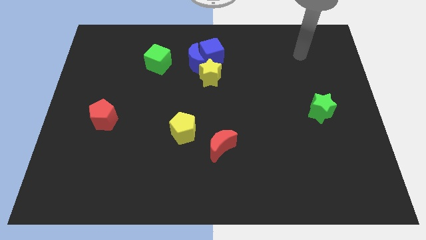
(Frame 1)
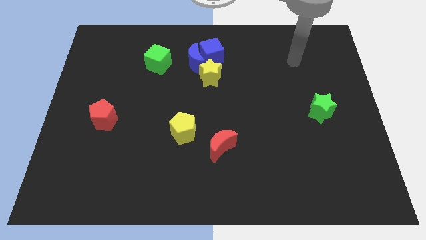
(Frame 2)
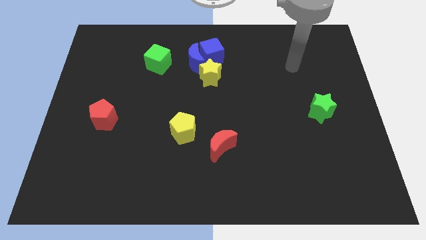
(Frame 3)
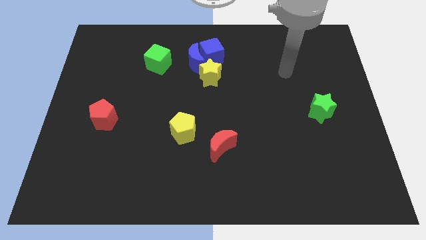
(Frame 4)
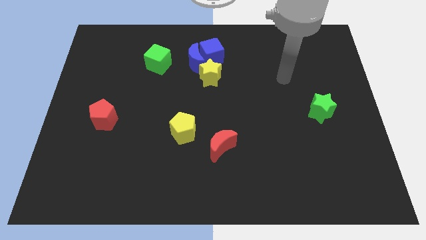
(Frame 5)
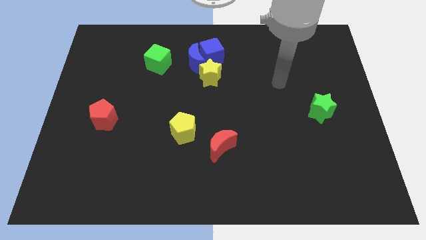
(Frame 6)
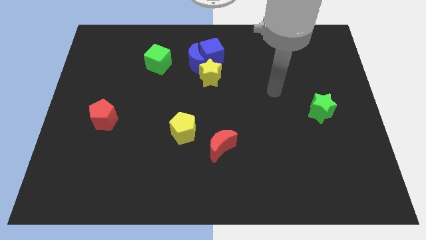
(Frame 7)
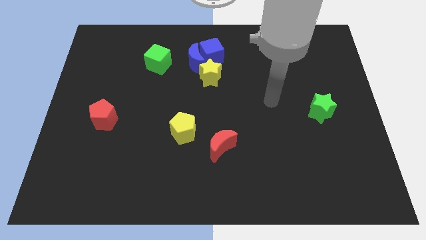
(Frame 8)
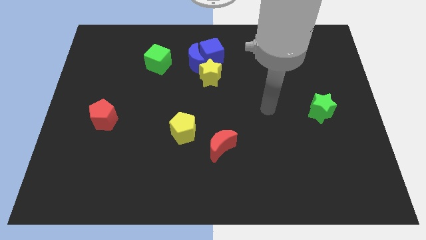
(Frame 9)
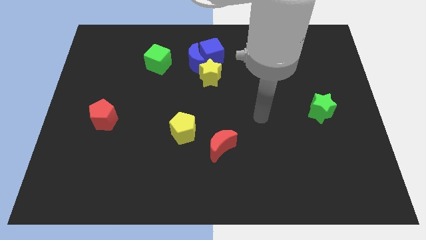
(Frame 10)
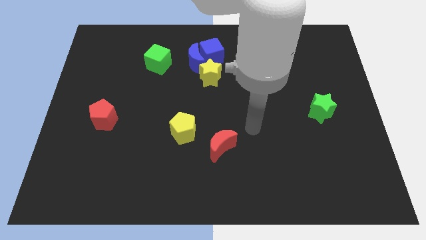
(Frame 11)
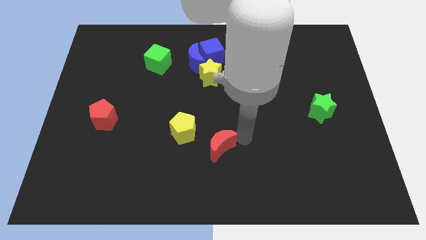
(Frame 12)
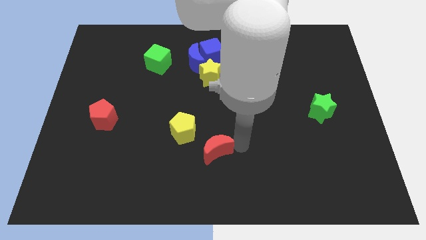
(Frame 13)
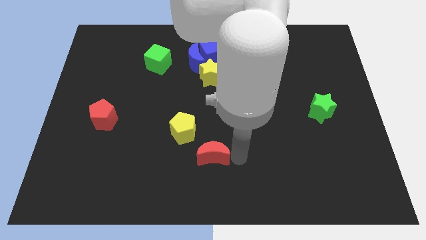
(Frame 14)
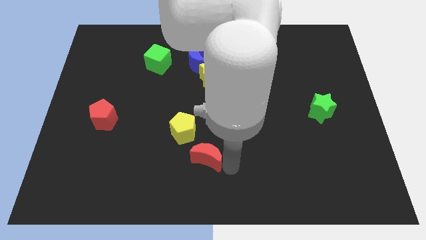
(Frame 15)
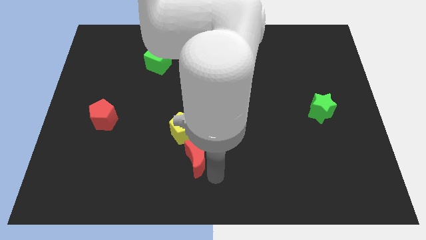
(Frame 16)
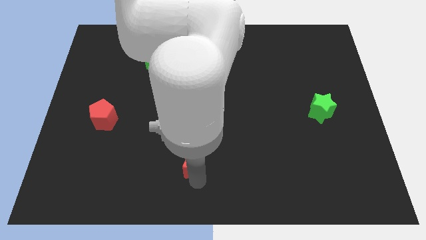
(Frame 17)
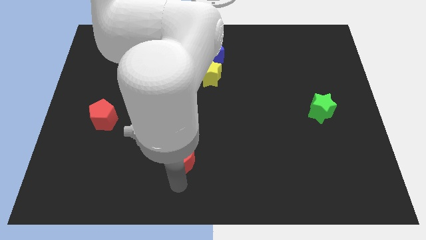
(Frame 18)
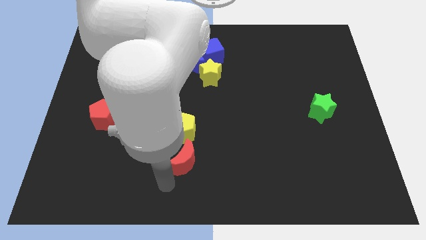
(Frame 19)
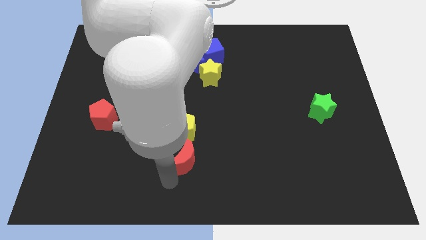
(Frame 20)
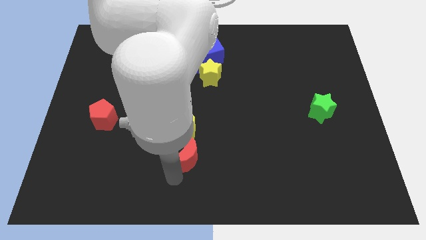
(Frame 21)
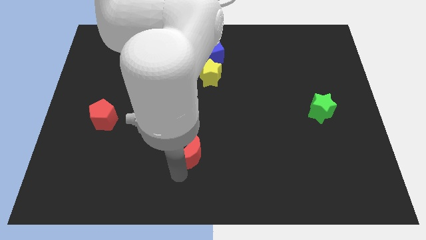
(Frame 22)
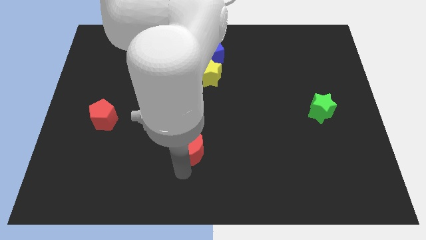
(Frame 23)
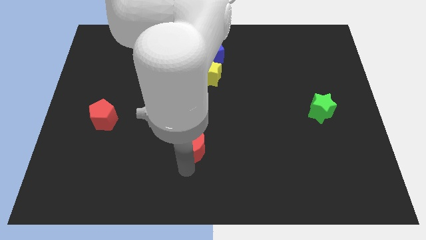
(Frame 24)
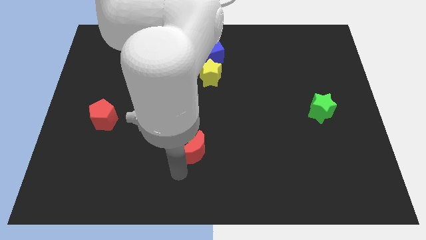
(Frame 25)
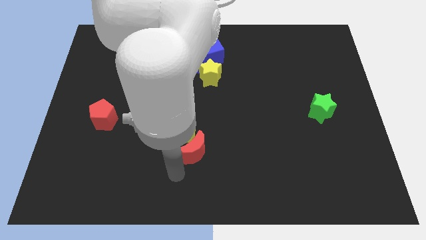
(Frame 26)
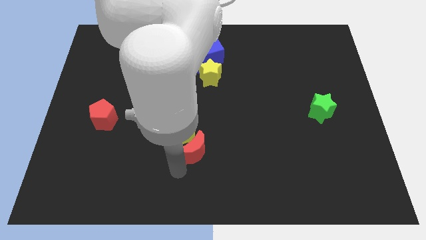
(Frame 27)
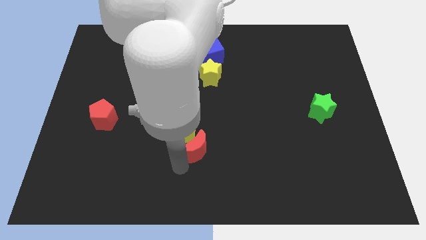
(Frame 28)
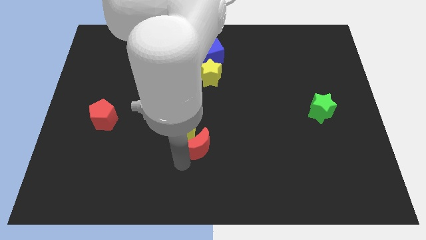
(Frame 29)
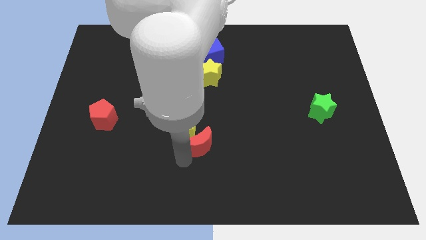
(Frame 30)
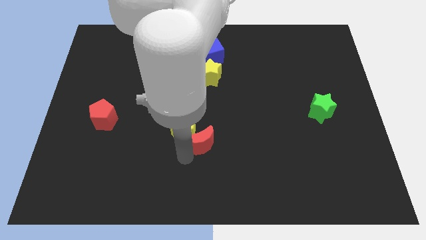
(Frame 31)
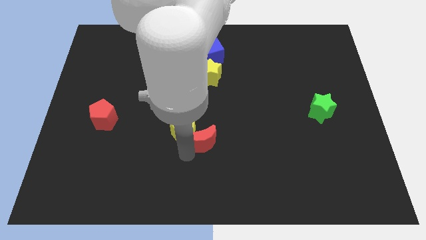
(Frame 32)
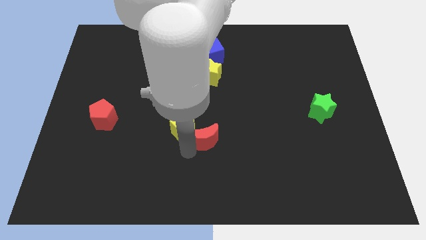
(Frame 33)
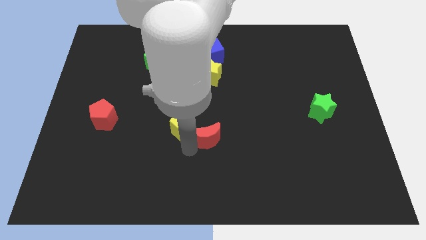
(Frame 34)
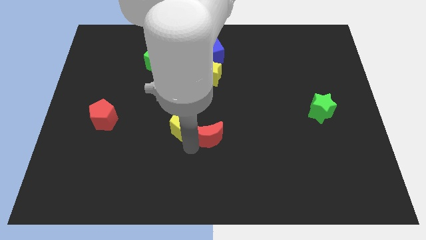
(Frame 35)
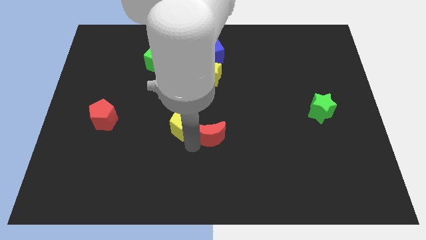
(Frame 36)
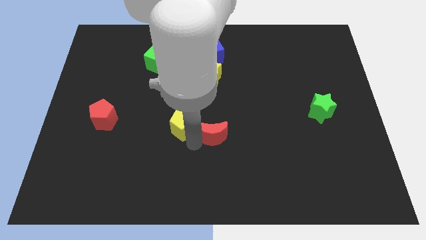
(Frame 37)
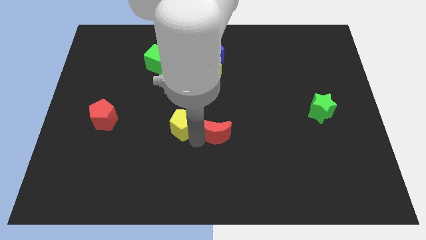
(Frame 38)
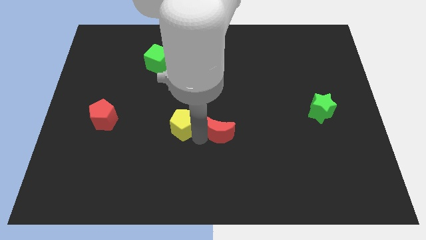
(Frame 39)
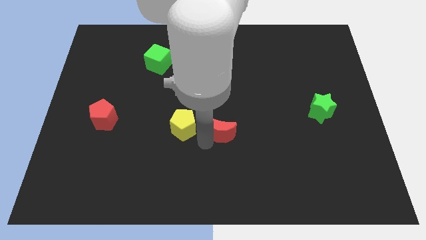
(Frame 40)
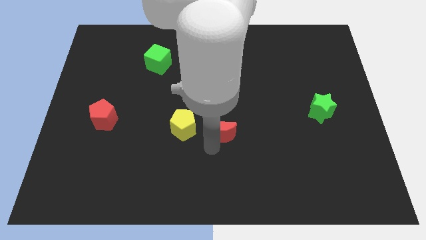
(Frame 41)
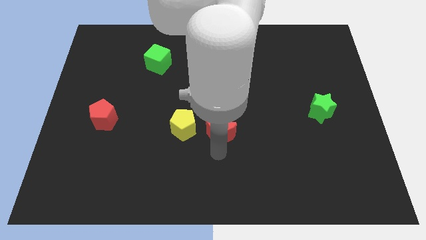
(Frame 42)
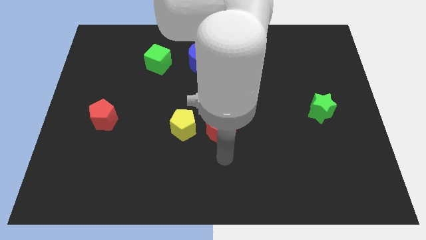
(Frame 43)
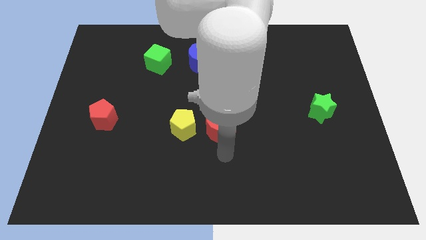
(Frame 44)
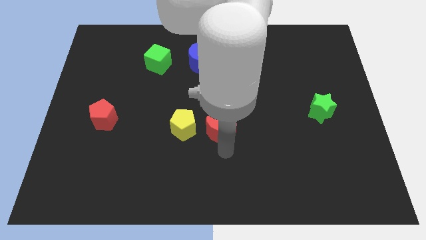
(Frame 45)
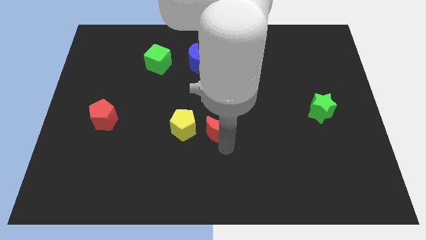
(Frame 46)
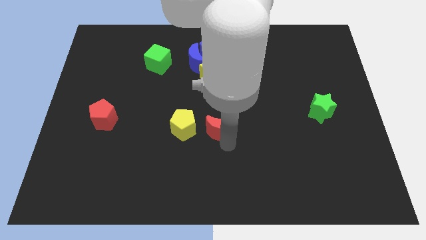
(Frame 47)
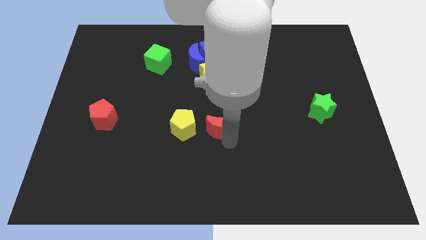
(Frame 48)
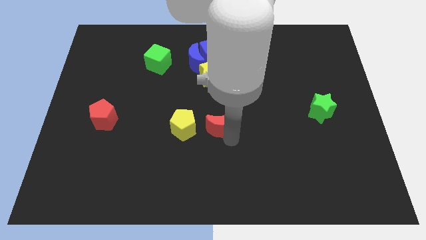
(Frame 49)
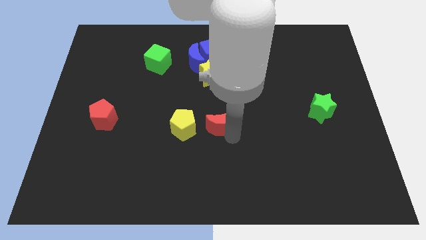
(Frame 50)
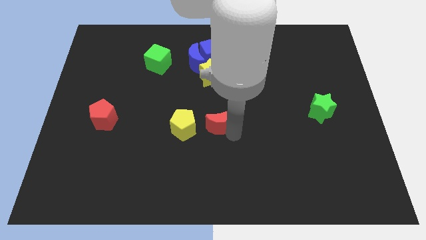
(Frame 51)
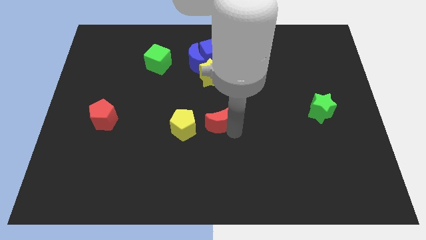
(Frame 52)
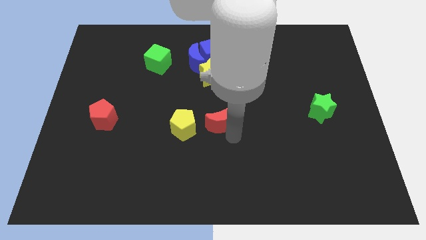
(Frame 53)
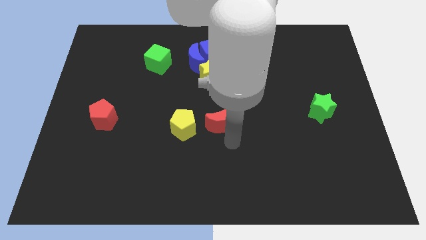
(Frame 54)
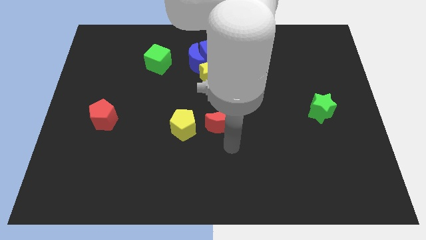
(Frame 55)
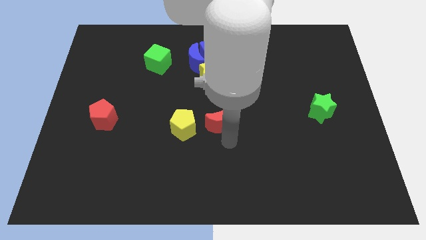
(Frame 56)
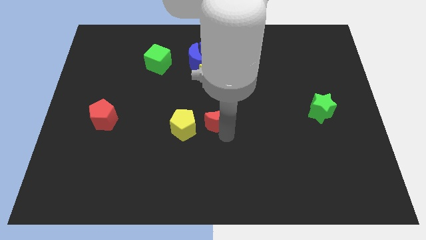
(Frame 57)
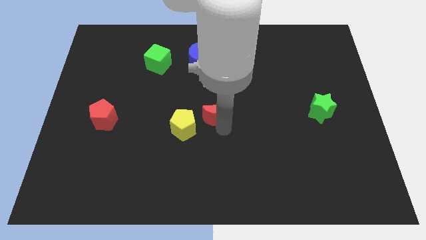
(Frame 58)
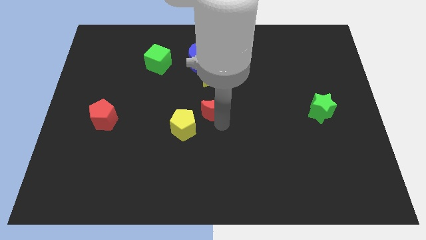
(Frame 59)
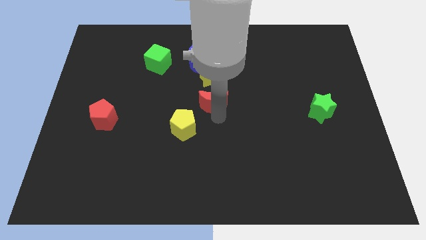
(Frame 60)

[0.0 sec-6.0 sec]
put the red moon below the blue cube

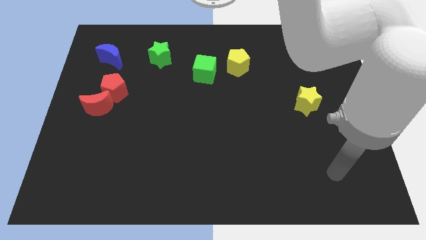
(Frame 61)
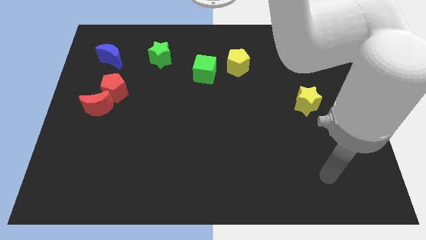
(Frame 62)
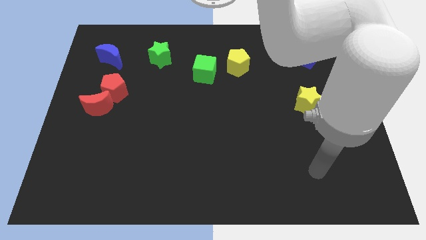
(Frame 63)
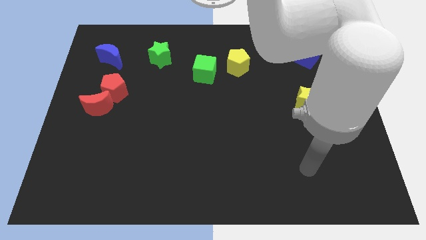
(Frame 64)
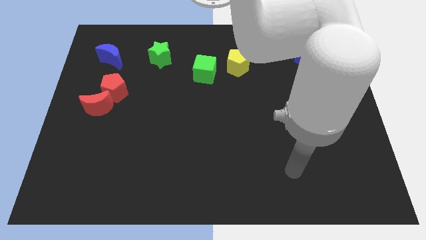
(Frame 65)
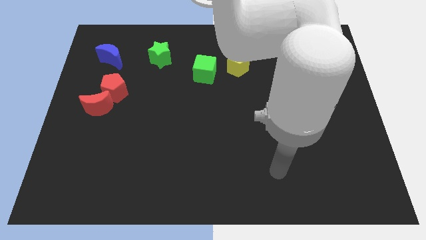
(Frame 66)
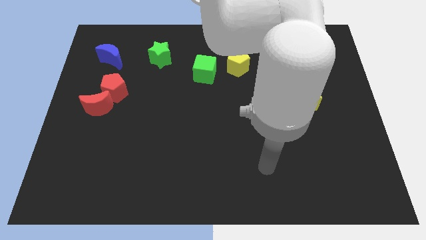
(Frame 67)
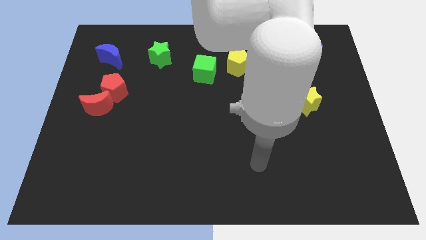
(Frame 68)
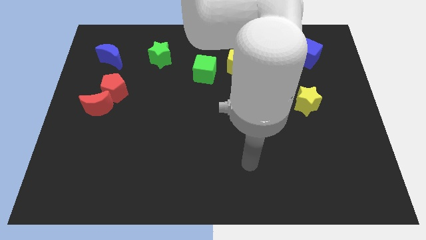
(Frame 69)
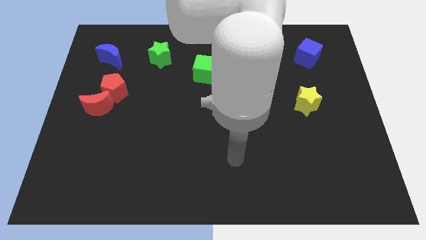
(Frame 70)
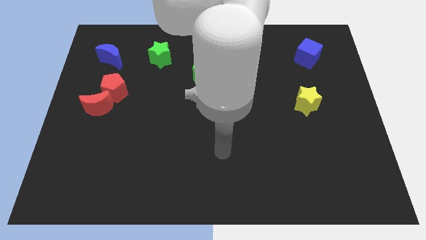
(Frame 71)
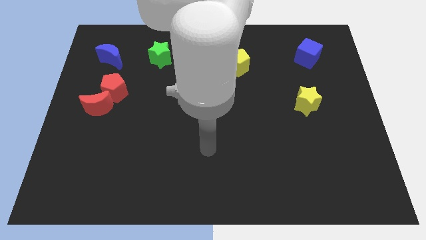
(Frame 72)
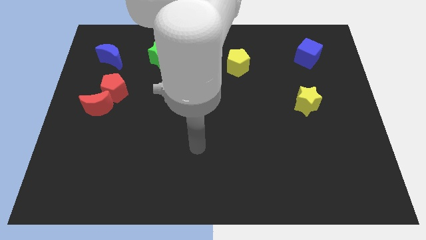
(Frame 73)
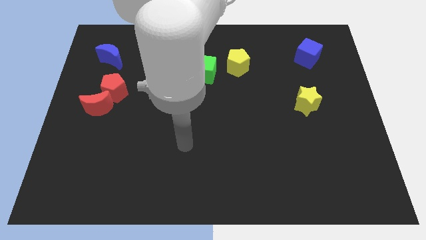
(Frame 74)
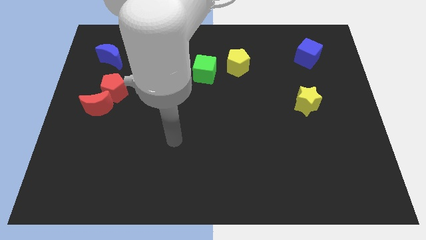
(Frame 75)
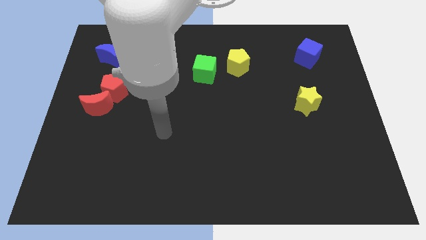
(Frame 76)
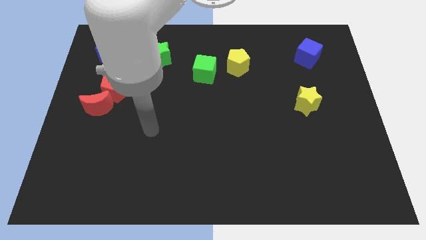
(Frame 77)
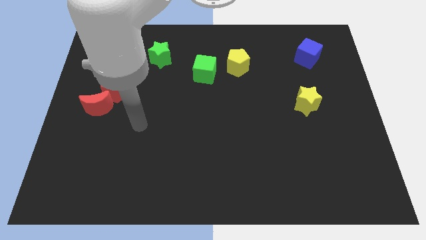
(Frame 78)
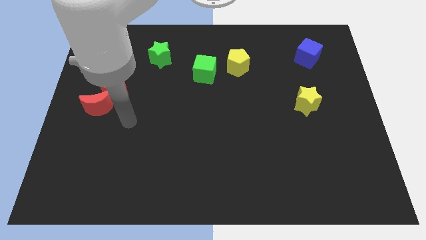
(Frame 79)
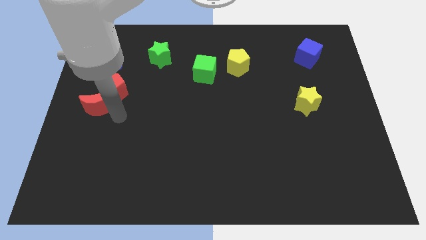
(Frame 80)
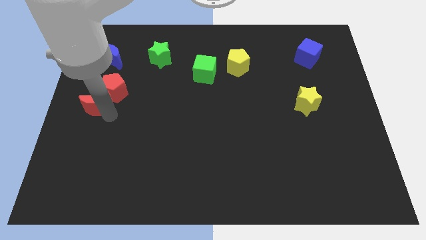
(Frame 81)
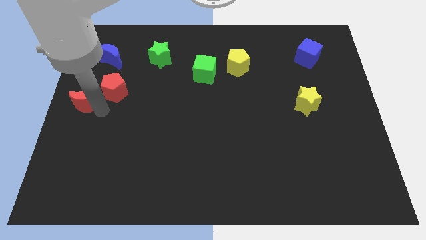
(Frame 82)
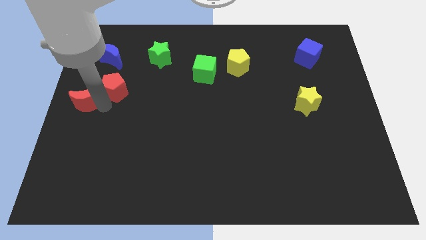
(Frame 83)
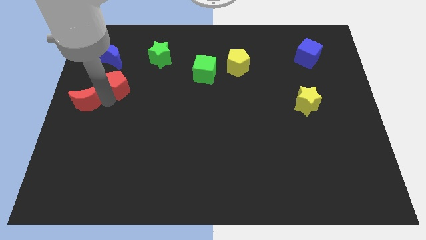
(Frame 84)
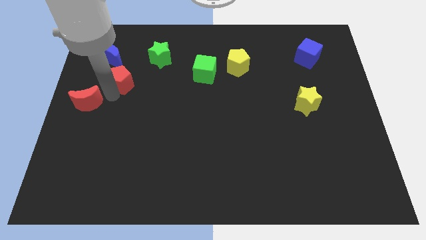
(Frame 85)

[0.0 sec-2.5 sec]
slide the red pentagon to the bottom right of the blue moon

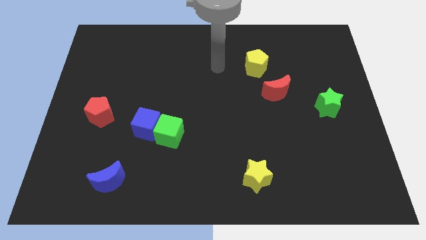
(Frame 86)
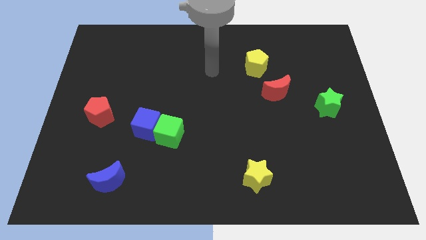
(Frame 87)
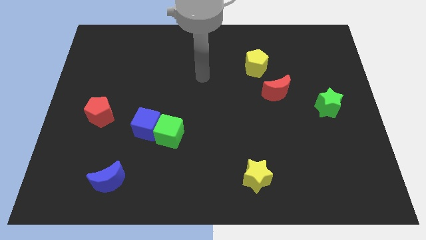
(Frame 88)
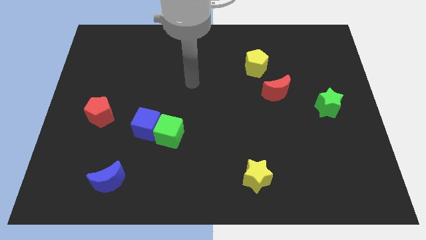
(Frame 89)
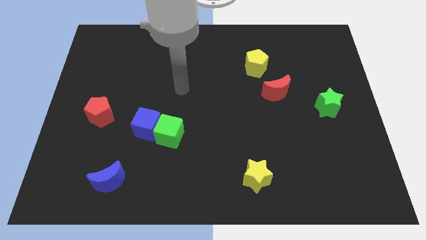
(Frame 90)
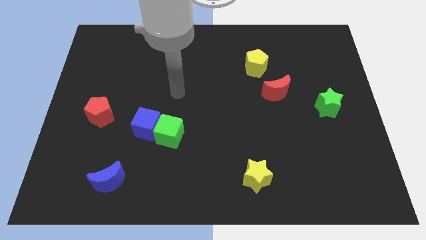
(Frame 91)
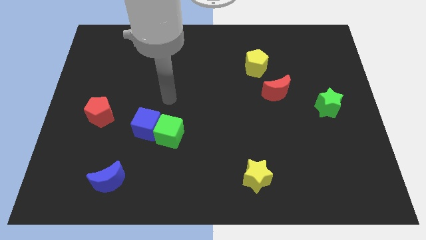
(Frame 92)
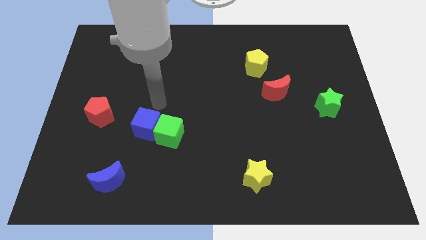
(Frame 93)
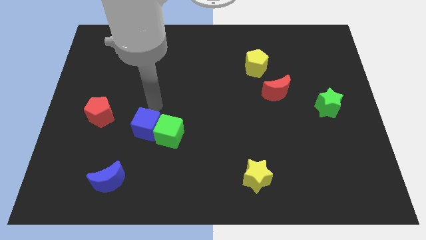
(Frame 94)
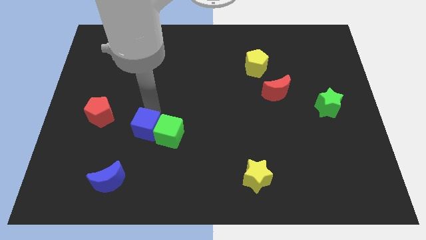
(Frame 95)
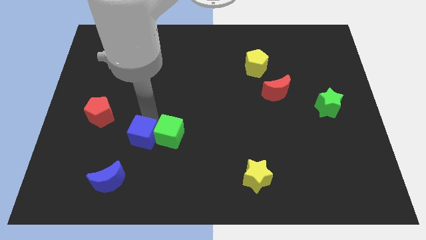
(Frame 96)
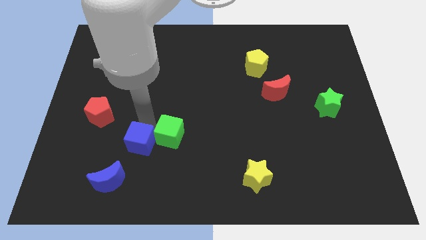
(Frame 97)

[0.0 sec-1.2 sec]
put the blue cube to the top right side of the blue moon
